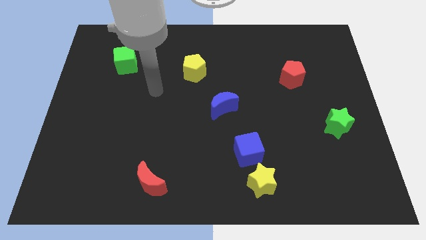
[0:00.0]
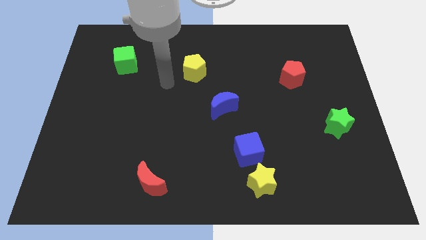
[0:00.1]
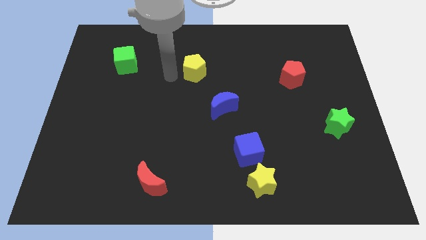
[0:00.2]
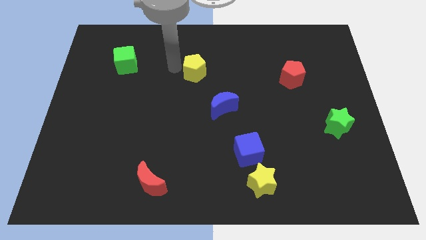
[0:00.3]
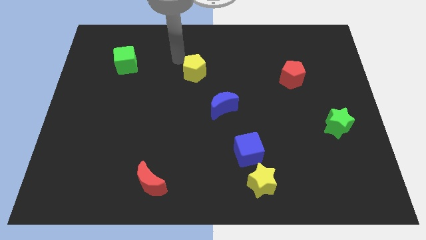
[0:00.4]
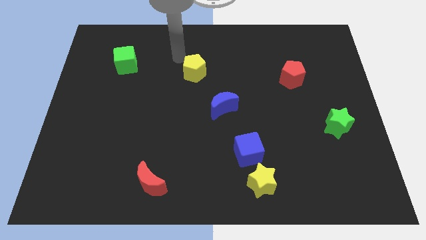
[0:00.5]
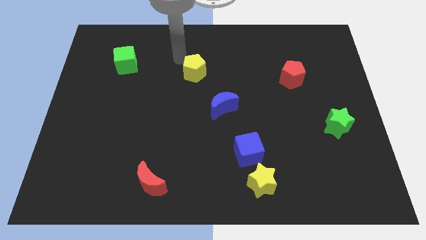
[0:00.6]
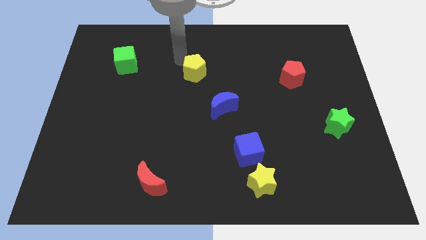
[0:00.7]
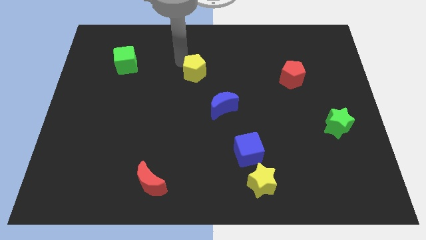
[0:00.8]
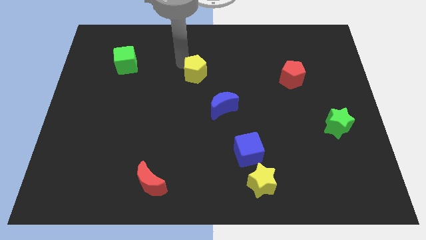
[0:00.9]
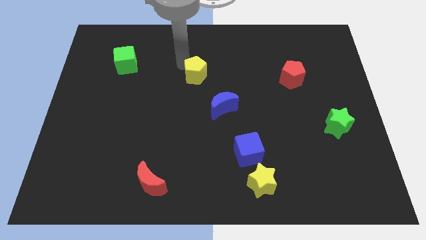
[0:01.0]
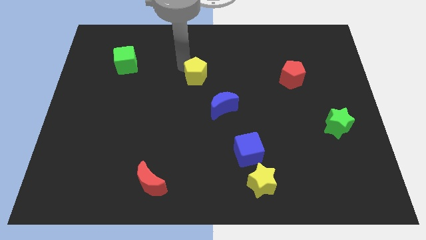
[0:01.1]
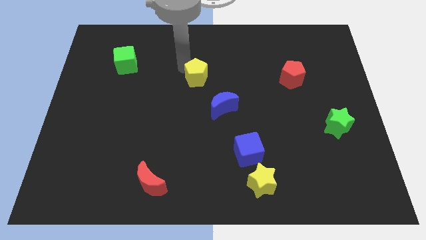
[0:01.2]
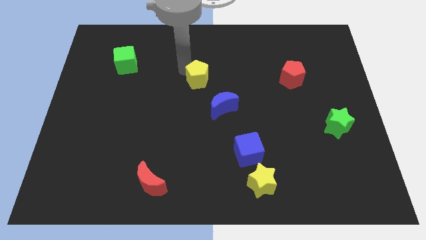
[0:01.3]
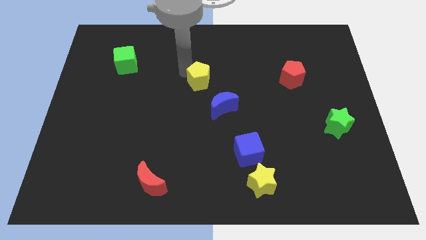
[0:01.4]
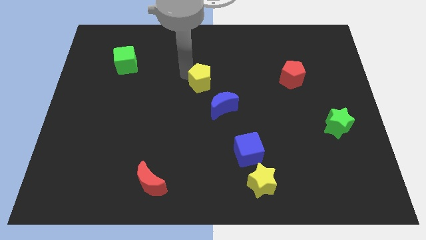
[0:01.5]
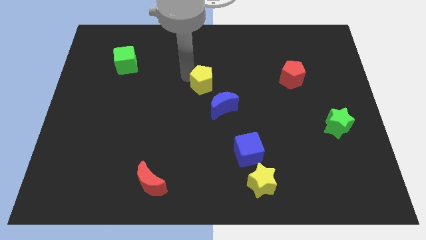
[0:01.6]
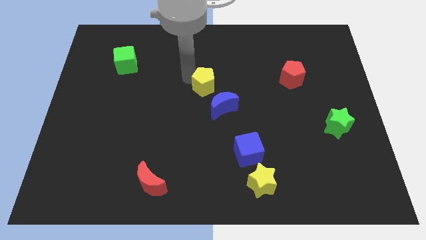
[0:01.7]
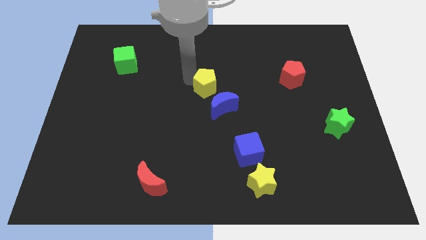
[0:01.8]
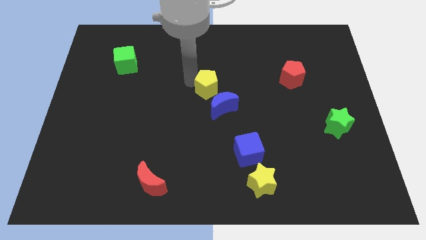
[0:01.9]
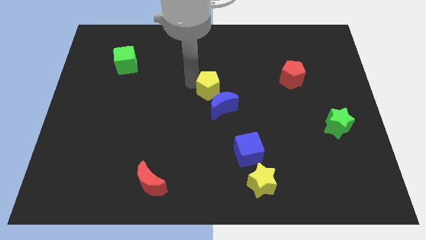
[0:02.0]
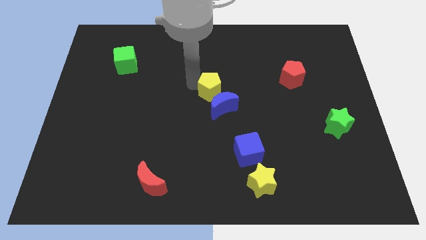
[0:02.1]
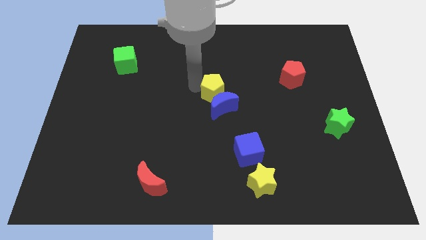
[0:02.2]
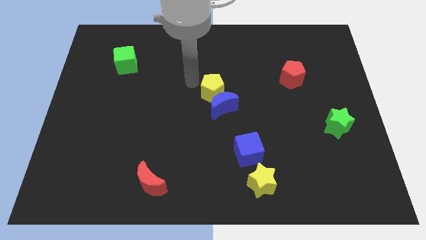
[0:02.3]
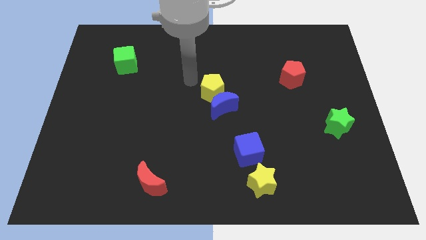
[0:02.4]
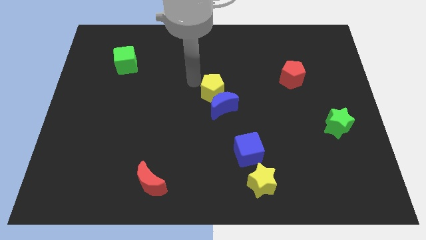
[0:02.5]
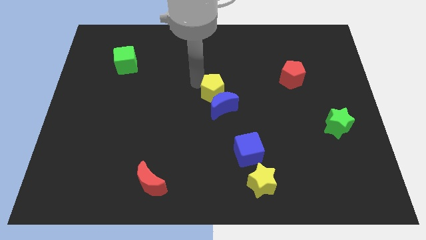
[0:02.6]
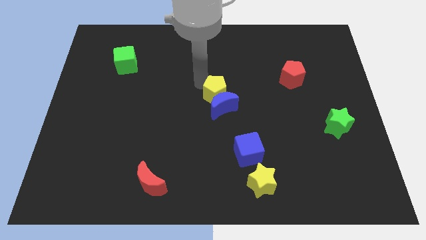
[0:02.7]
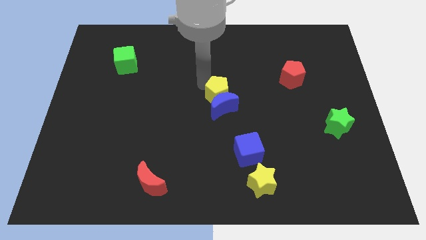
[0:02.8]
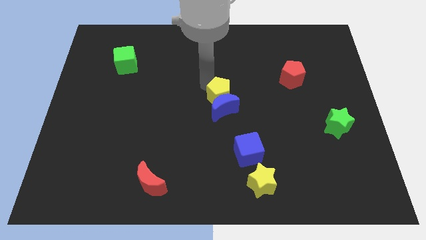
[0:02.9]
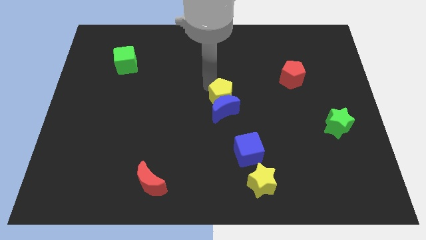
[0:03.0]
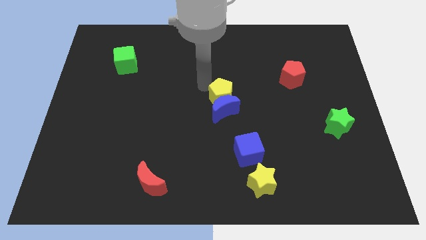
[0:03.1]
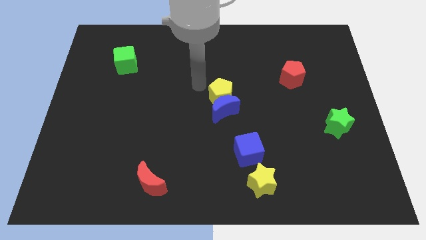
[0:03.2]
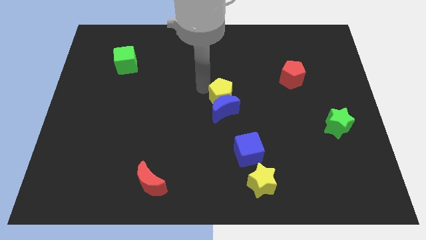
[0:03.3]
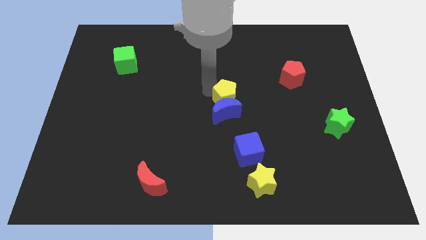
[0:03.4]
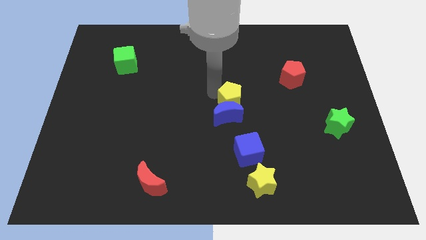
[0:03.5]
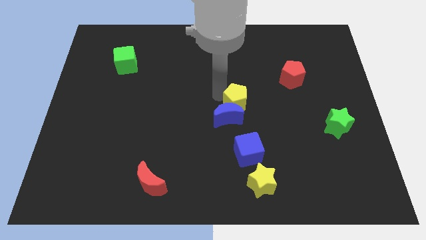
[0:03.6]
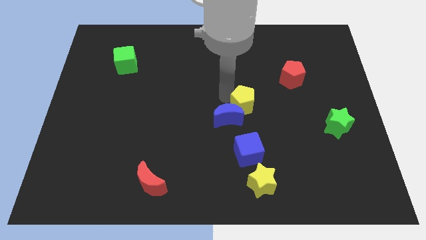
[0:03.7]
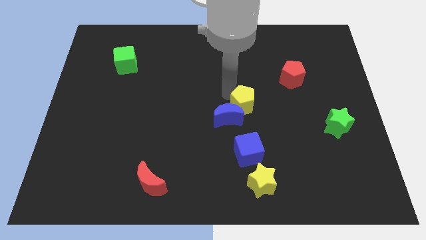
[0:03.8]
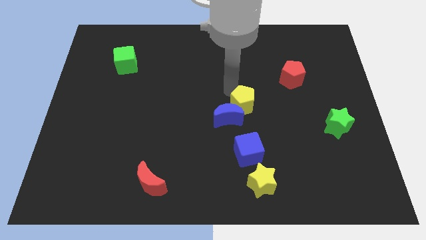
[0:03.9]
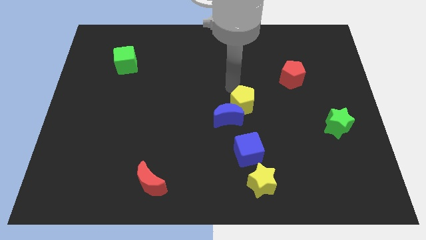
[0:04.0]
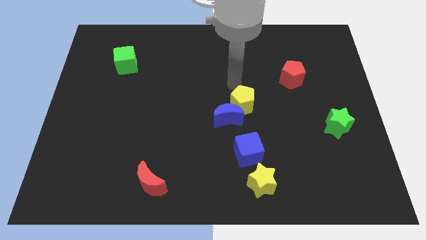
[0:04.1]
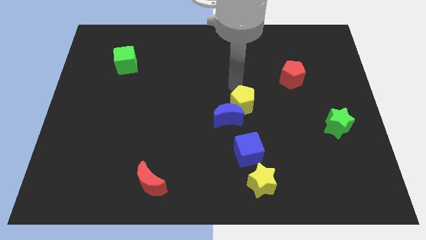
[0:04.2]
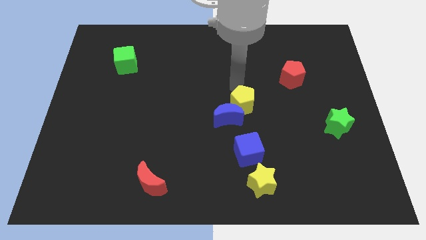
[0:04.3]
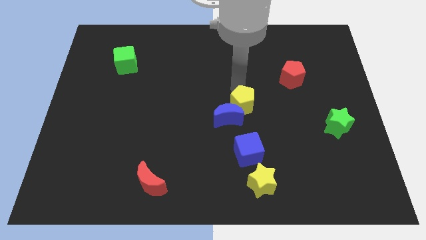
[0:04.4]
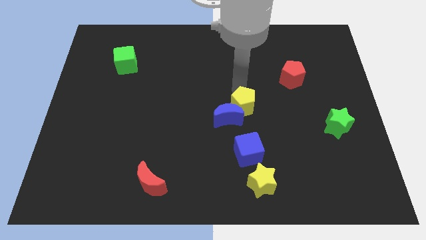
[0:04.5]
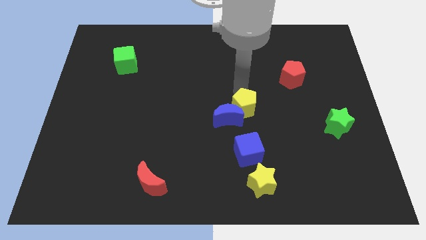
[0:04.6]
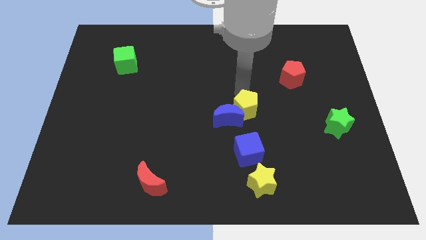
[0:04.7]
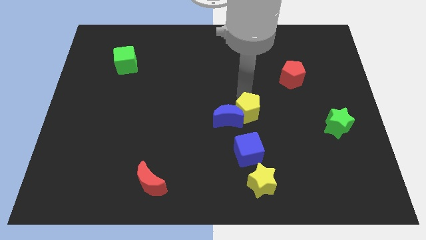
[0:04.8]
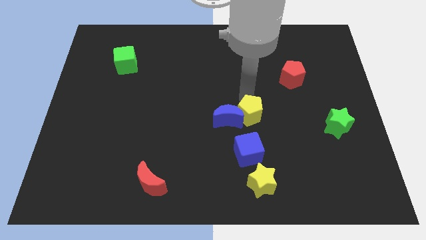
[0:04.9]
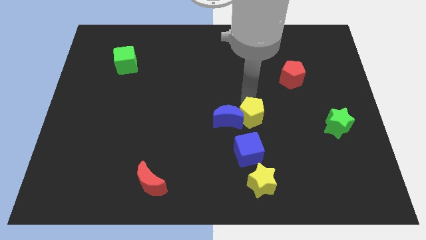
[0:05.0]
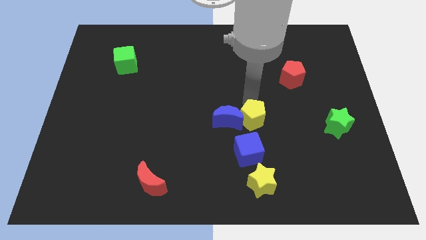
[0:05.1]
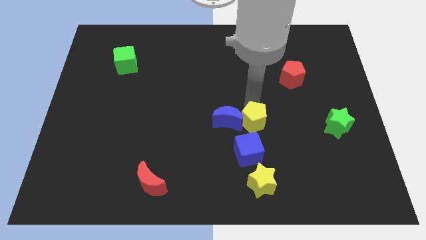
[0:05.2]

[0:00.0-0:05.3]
put the yellow pentagon diagonally up and to the right of the blue cube

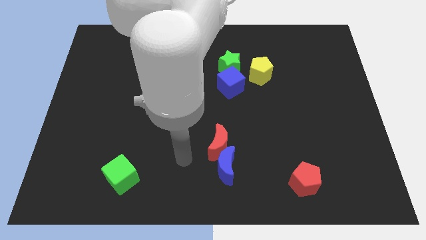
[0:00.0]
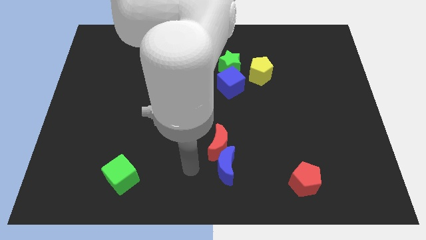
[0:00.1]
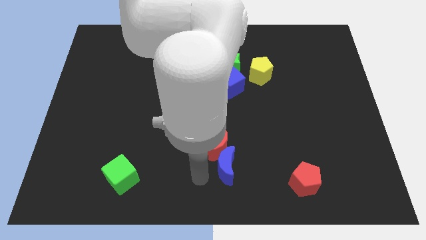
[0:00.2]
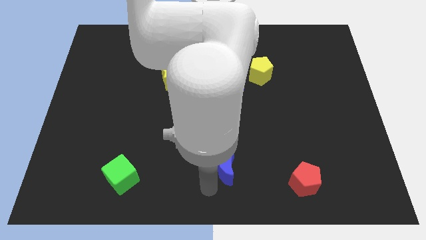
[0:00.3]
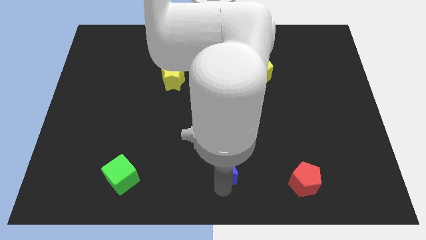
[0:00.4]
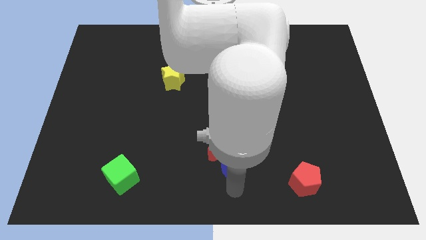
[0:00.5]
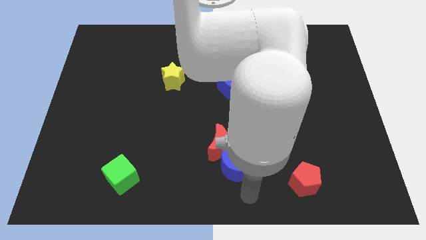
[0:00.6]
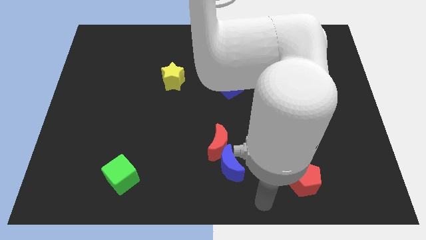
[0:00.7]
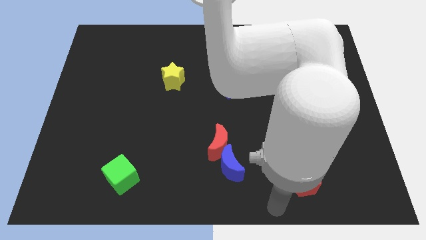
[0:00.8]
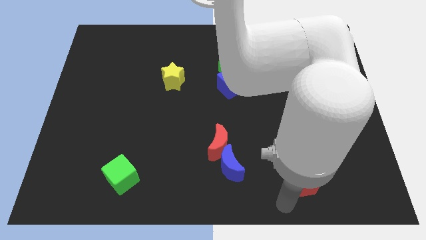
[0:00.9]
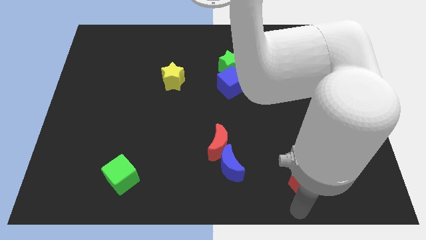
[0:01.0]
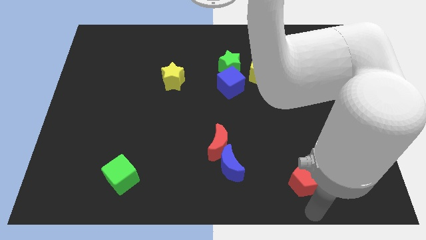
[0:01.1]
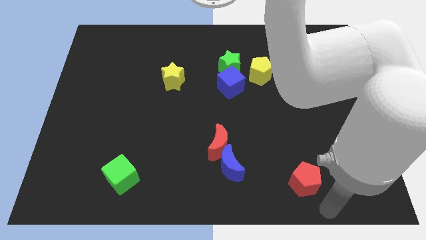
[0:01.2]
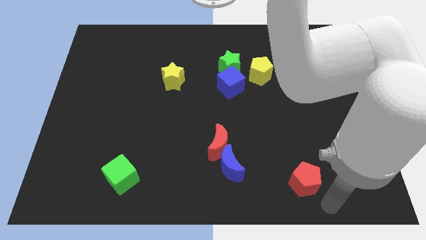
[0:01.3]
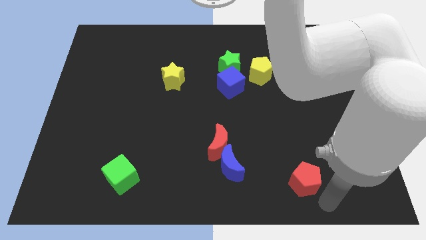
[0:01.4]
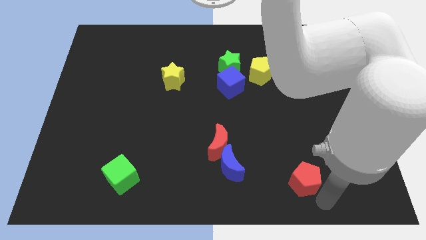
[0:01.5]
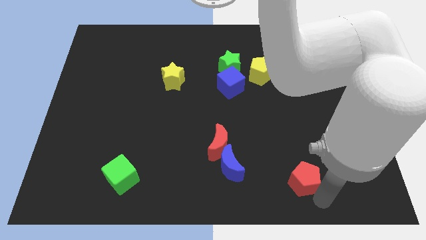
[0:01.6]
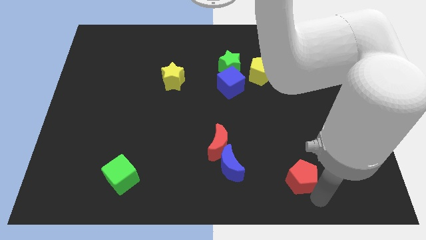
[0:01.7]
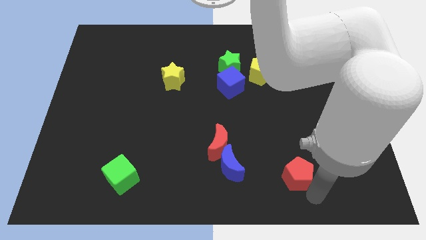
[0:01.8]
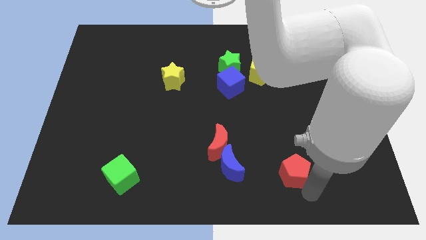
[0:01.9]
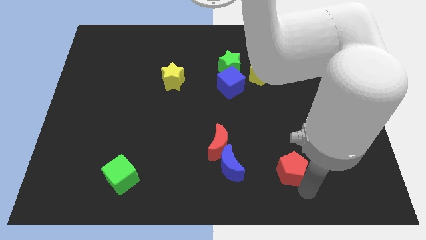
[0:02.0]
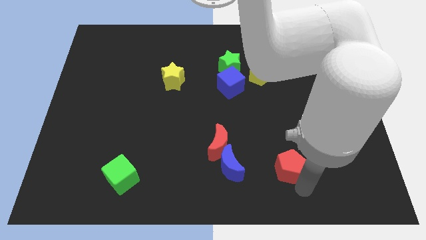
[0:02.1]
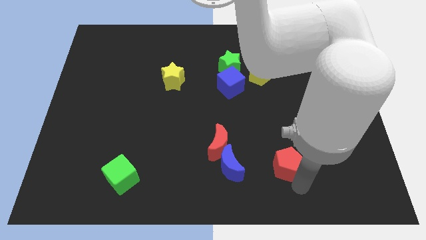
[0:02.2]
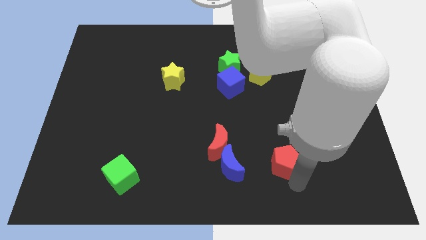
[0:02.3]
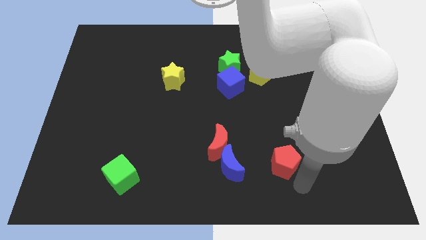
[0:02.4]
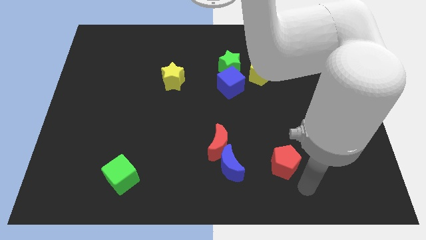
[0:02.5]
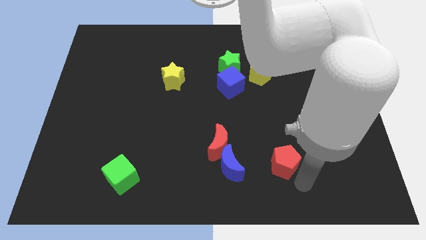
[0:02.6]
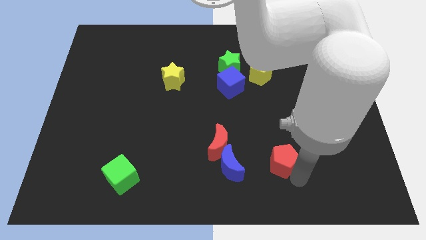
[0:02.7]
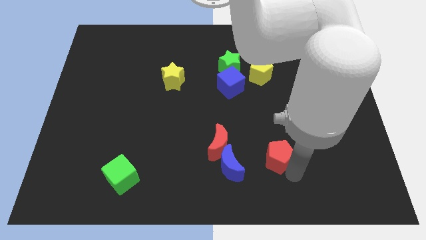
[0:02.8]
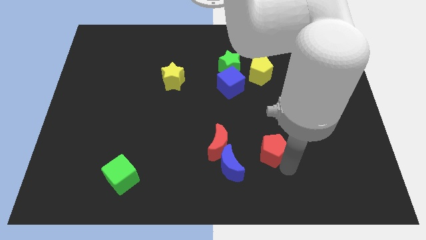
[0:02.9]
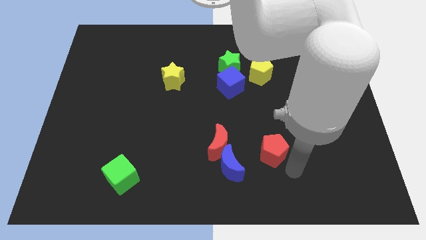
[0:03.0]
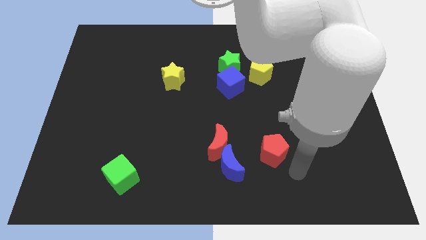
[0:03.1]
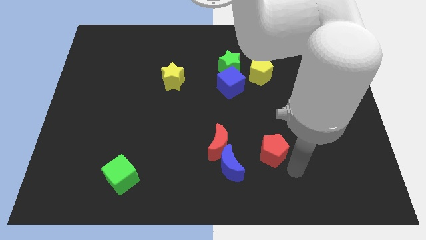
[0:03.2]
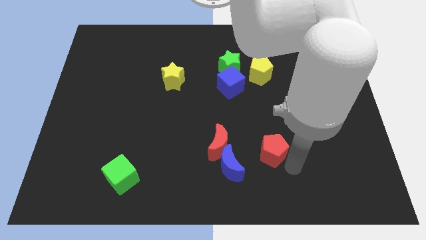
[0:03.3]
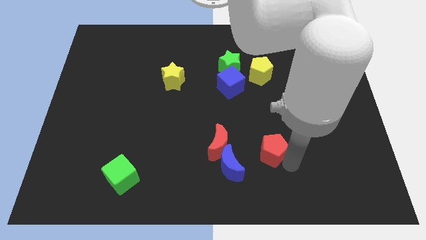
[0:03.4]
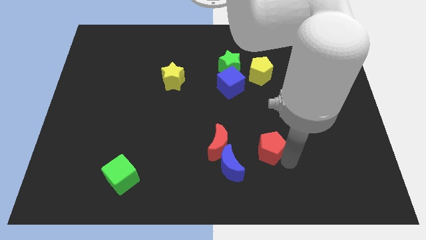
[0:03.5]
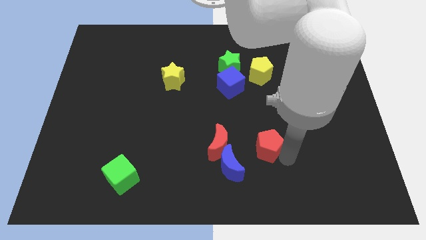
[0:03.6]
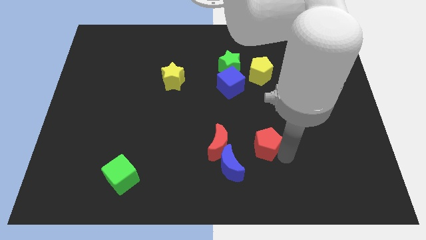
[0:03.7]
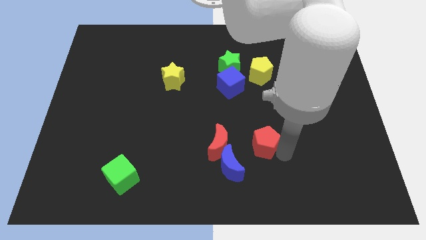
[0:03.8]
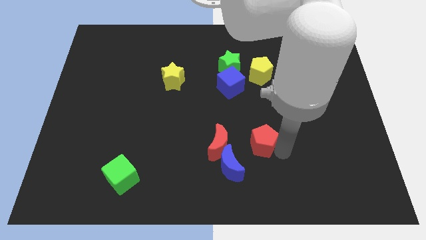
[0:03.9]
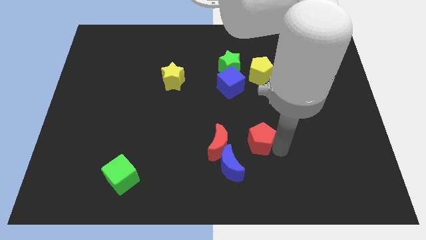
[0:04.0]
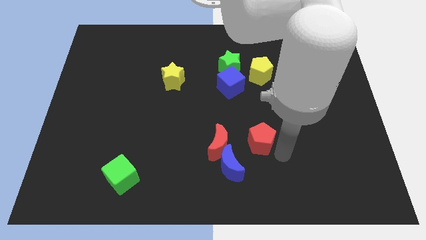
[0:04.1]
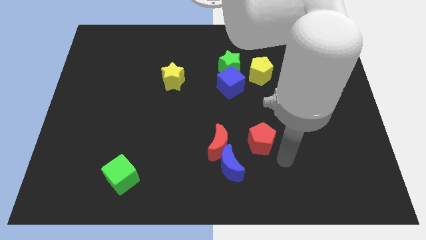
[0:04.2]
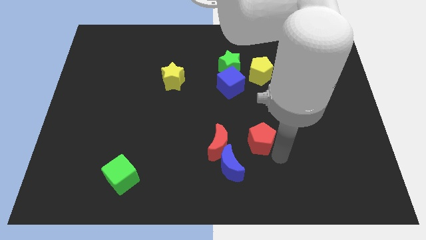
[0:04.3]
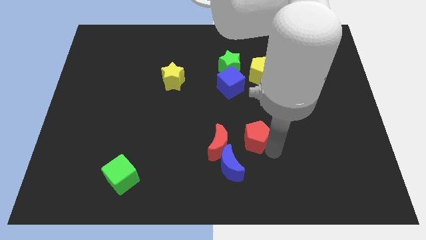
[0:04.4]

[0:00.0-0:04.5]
slide the red pentagon diagonally up and to the right of the red moon
